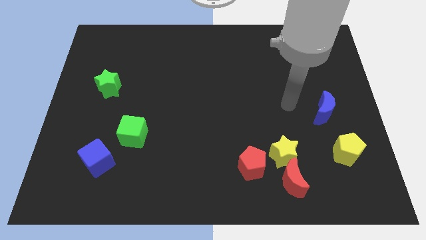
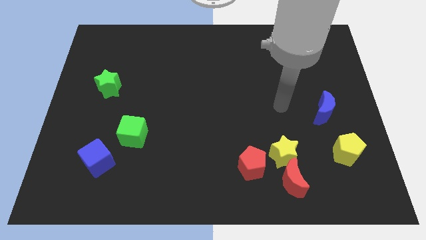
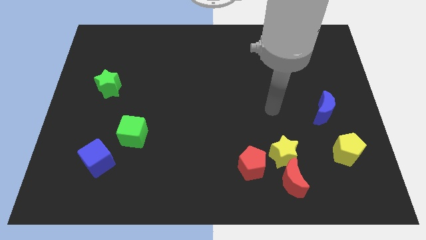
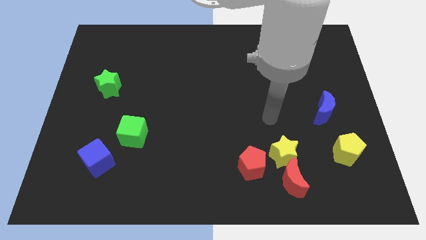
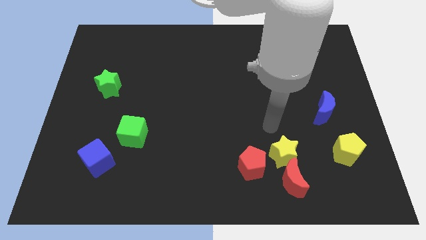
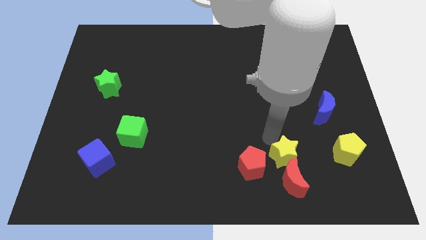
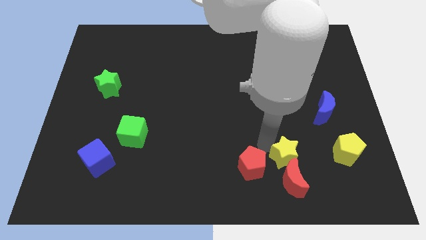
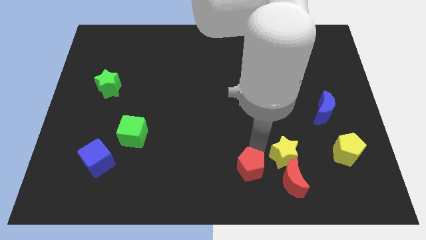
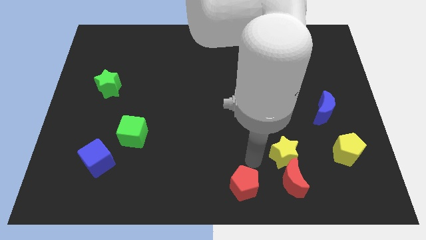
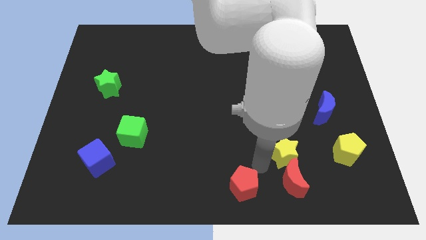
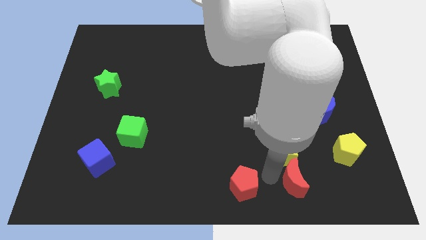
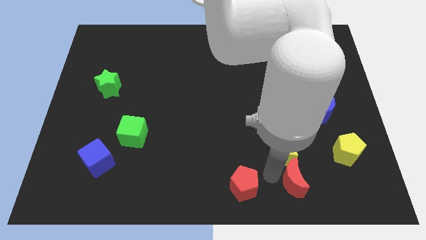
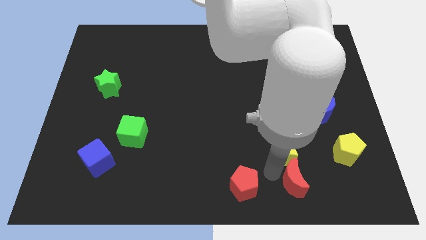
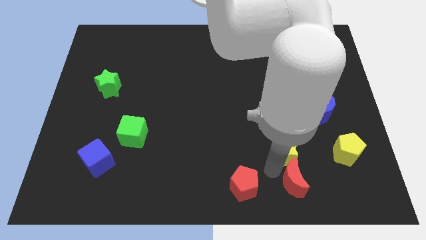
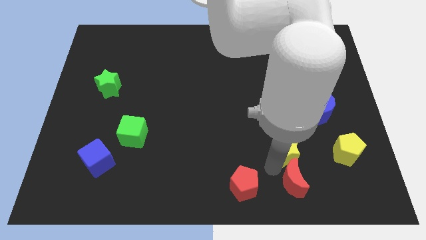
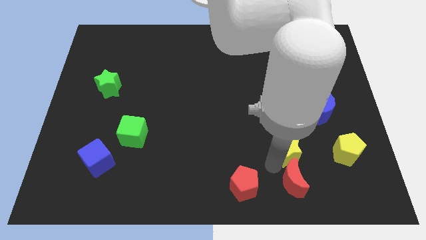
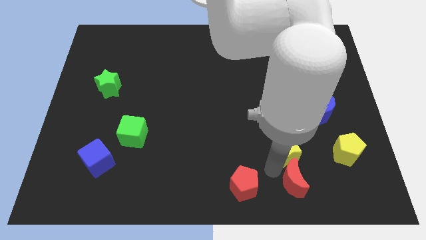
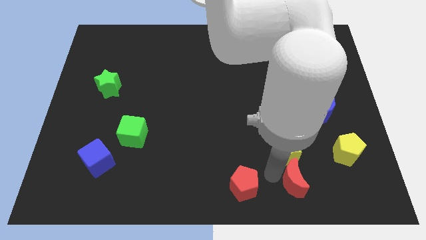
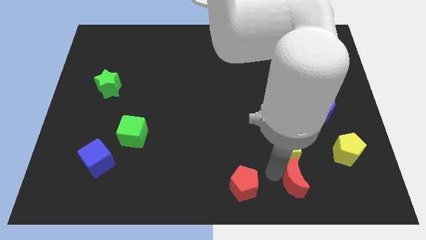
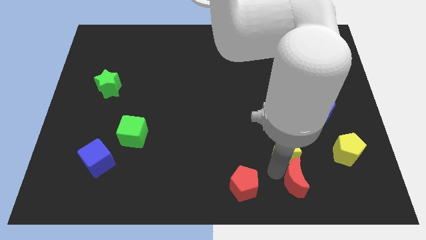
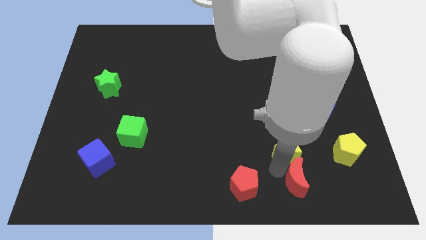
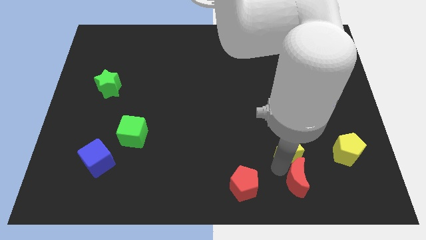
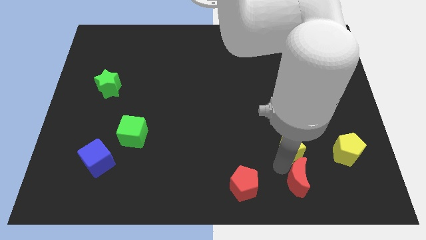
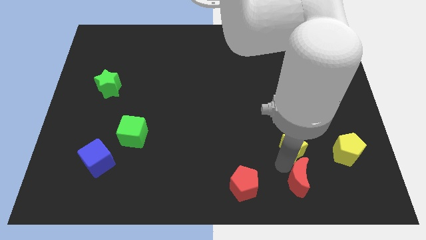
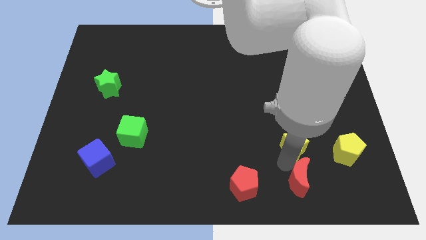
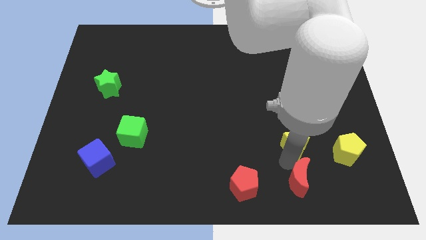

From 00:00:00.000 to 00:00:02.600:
move the yellow star away from the red moon and red pentagon

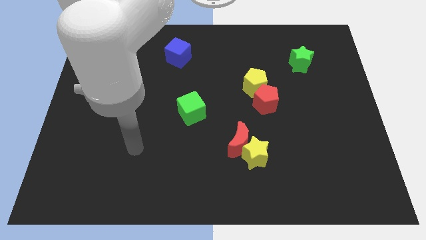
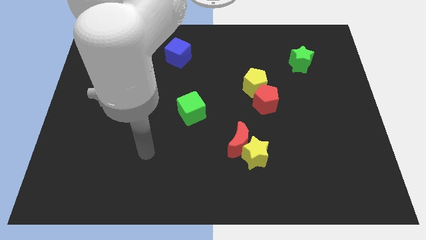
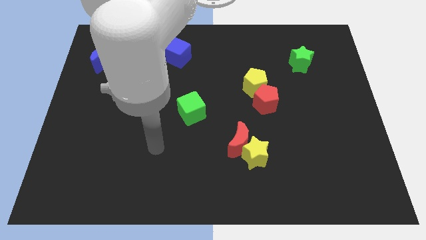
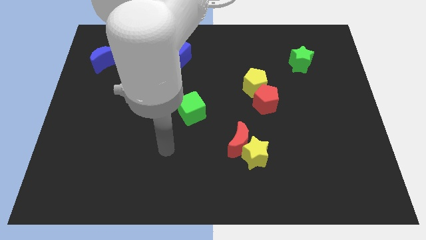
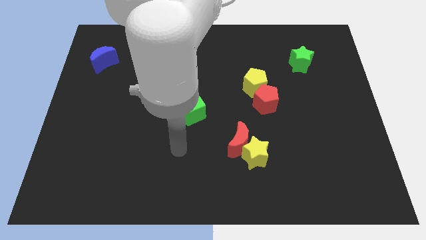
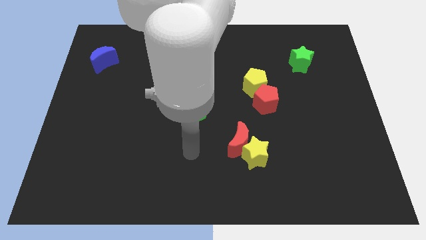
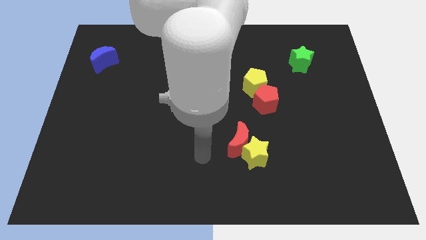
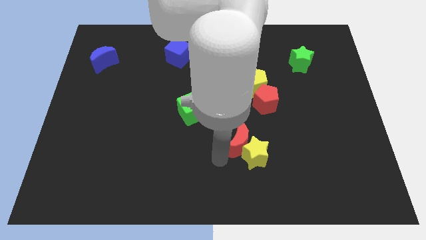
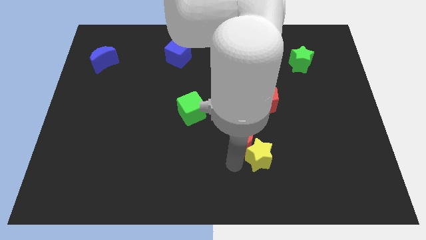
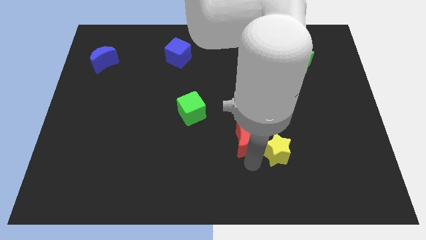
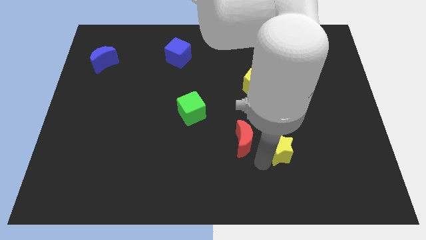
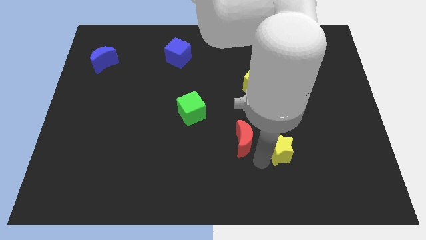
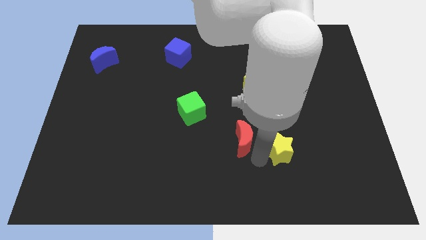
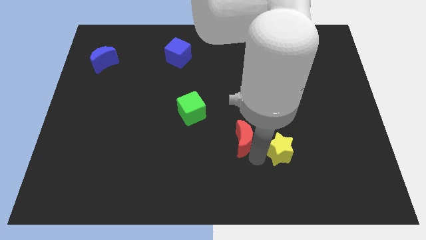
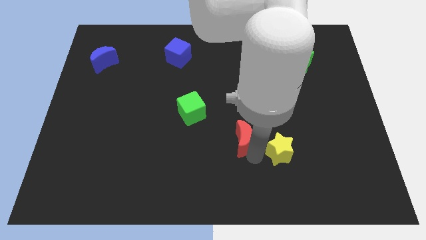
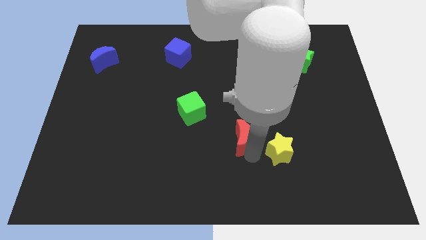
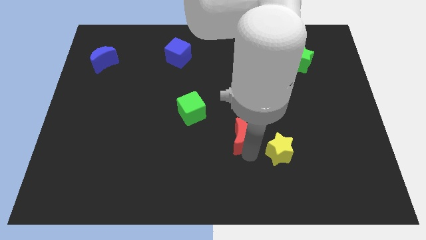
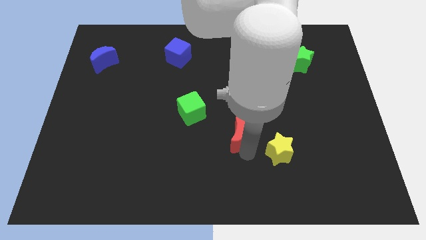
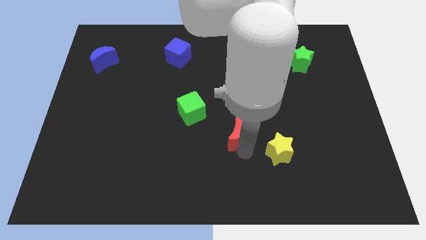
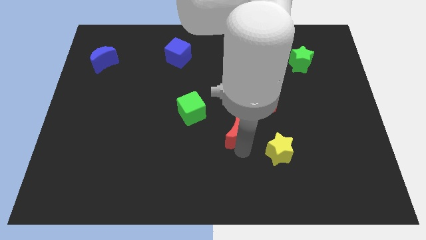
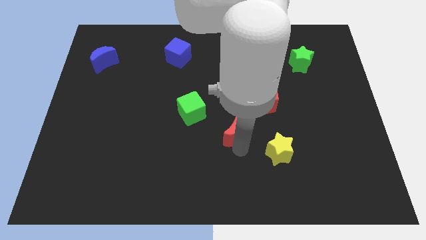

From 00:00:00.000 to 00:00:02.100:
separate the red moon from the yellow star

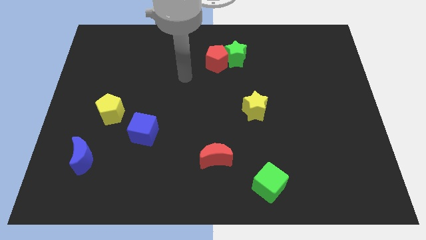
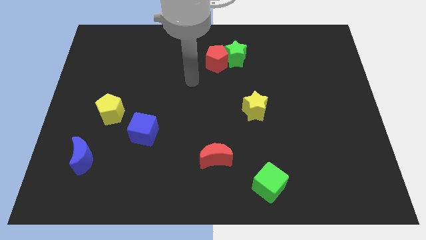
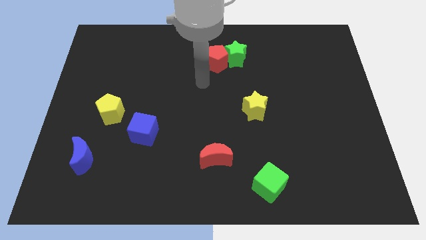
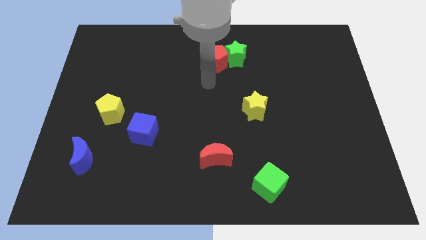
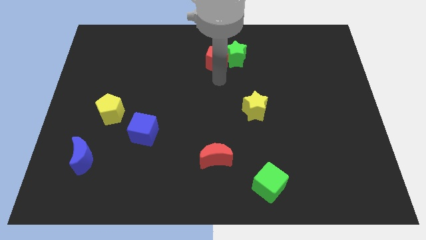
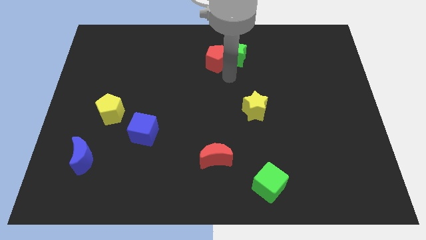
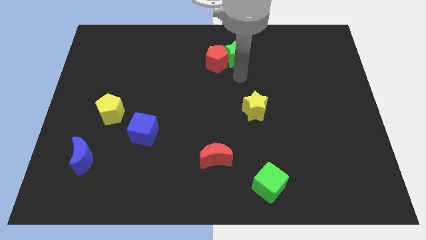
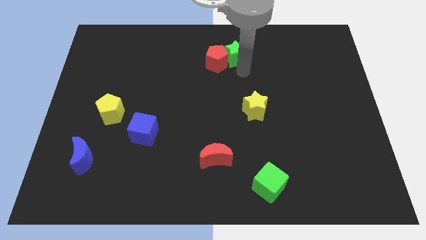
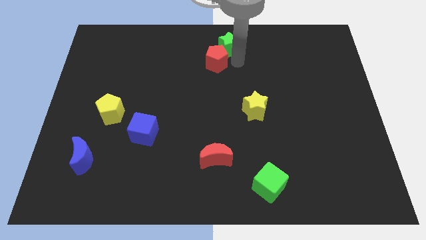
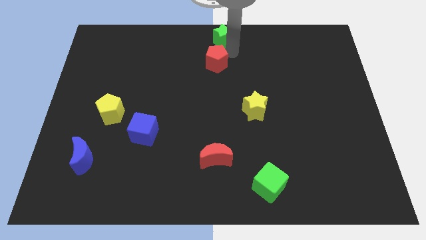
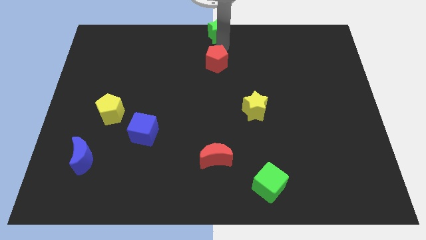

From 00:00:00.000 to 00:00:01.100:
move the red pentagon away from the green star

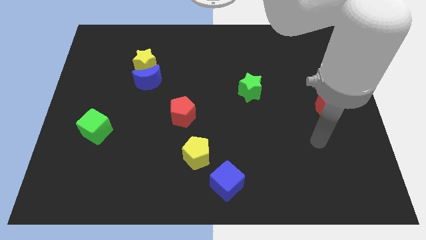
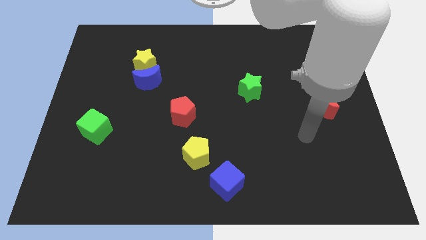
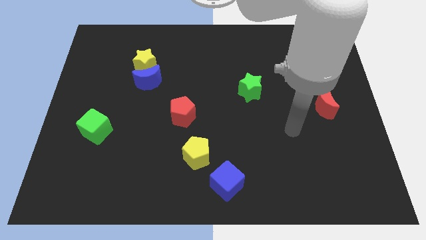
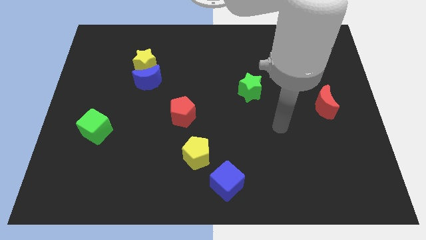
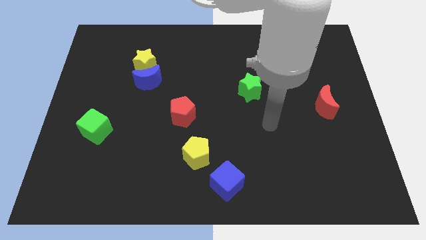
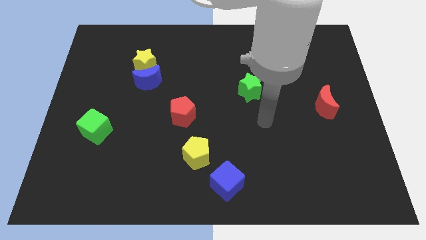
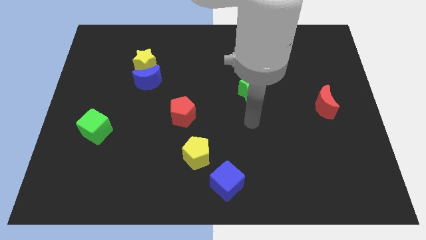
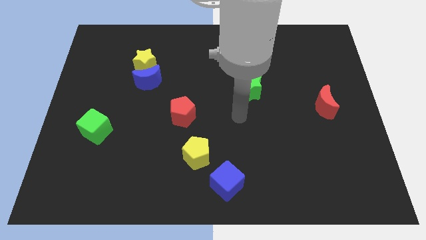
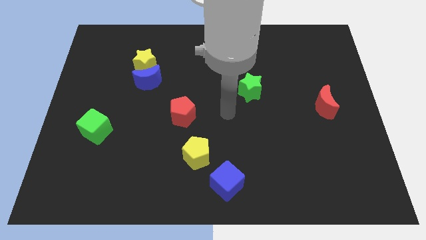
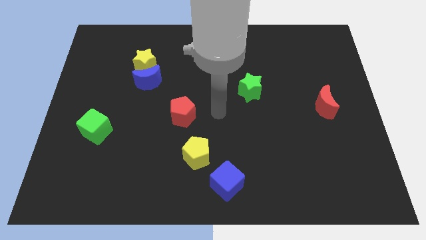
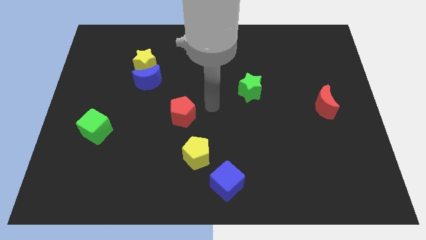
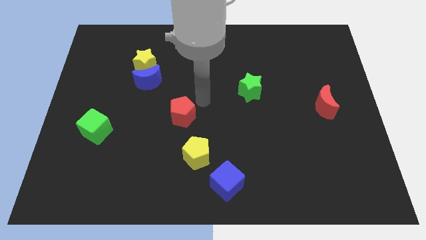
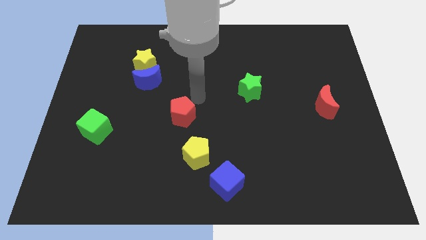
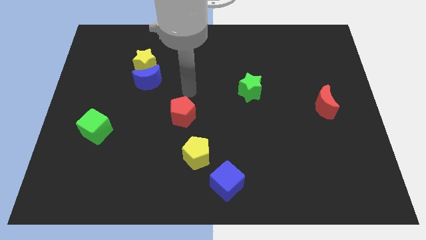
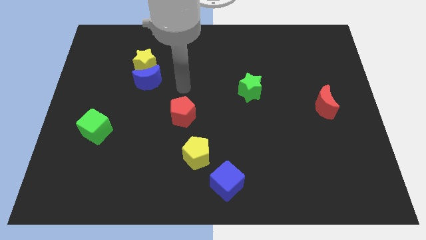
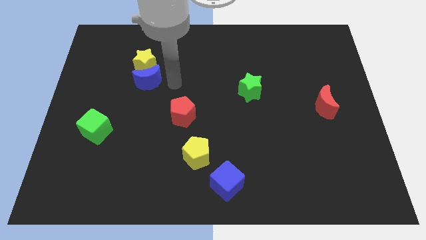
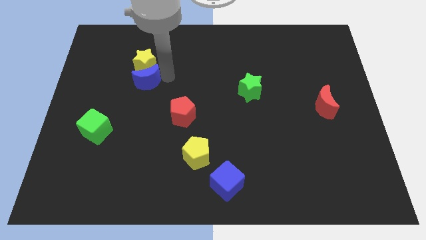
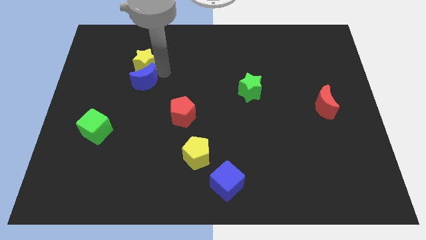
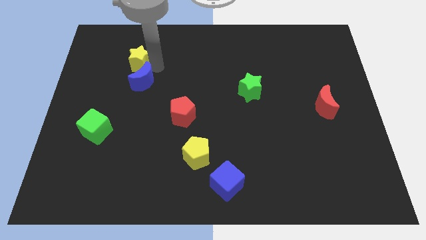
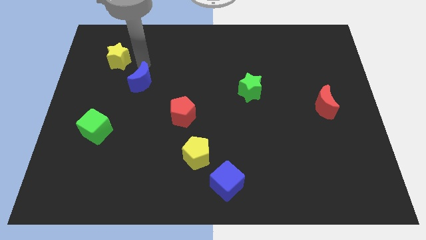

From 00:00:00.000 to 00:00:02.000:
move the blue moon away from the yellow star

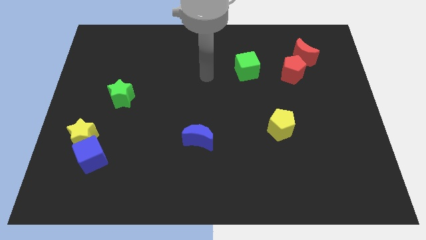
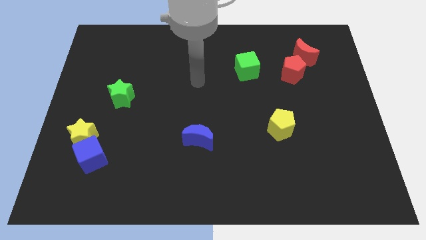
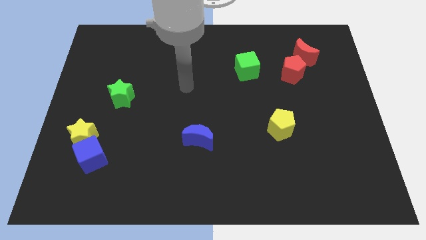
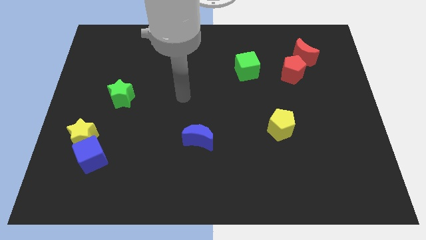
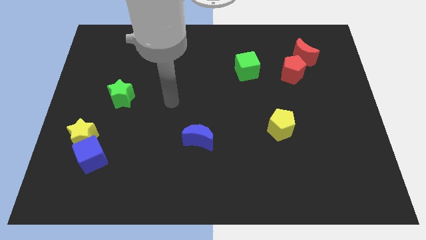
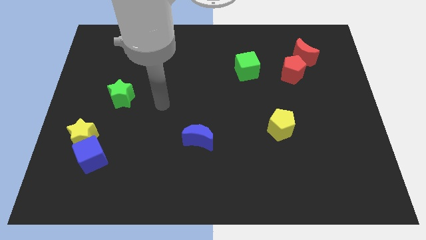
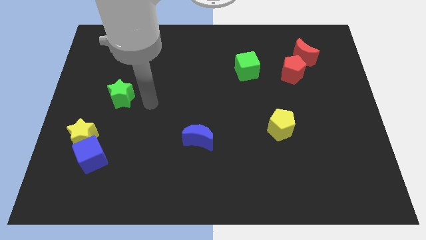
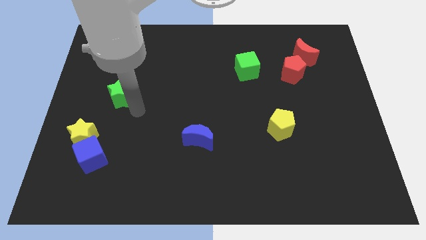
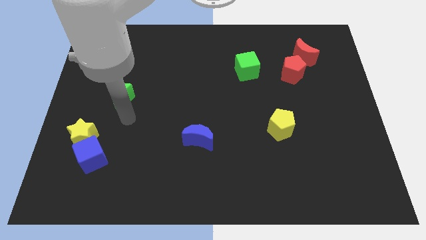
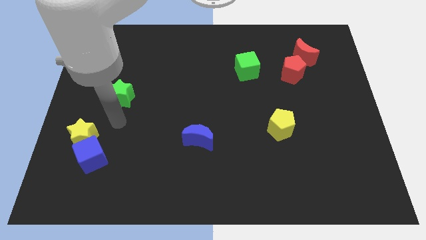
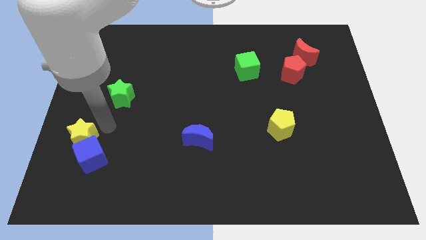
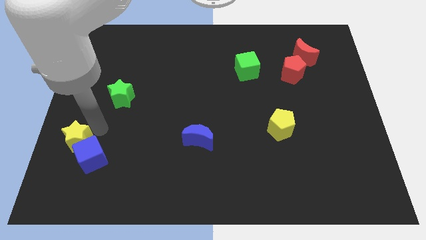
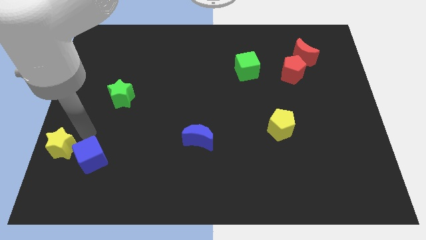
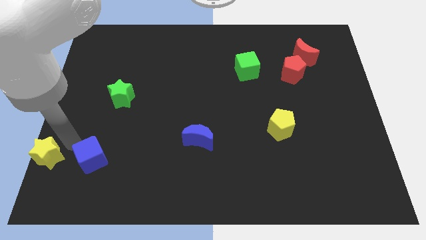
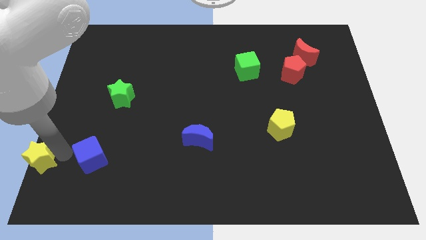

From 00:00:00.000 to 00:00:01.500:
move the blue cube away from the yellow star
